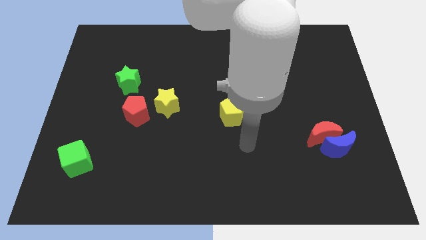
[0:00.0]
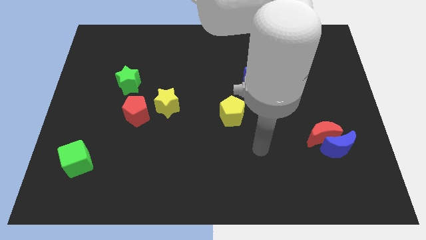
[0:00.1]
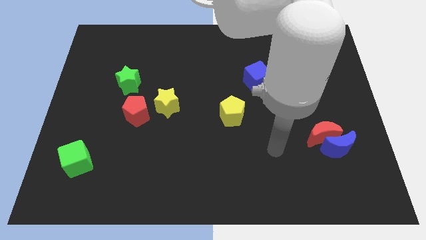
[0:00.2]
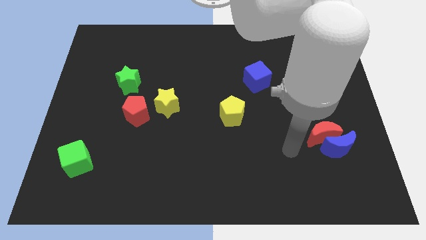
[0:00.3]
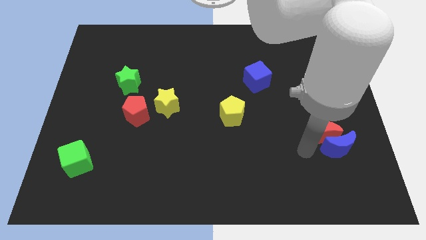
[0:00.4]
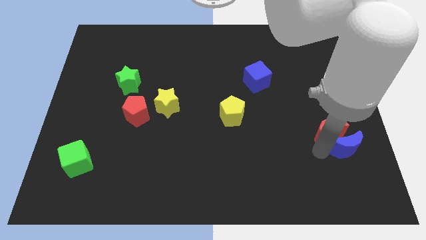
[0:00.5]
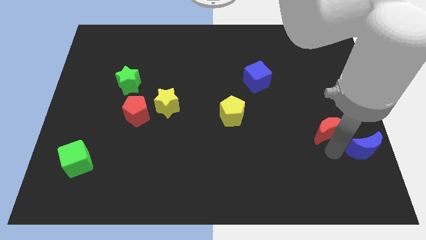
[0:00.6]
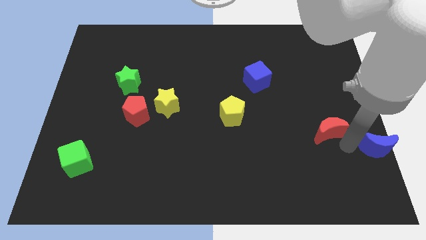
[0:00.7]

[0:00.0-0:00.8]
pull the red moon apart from the blue moon

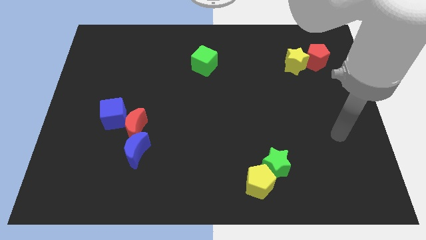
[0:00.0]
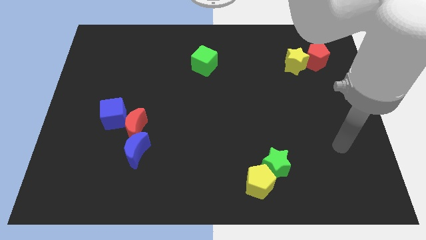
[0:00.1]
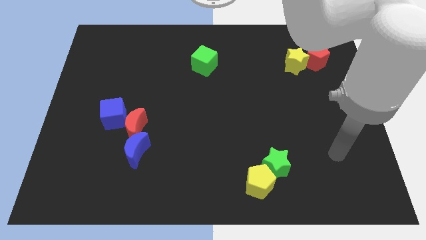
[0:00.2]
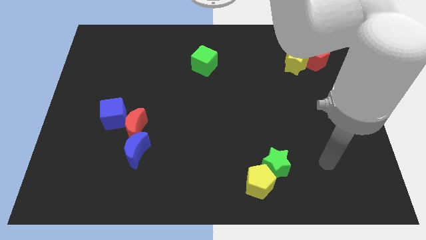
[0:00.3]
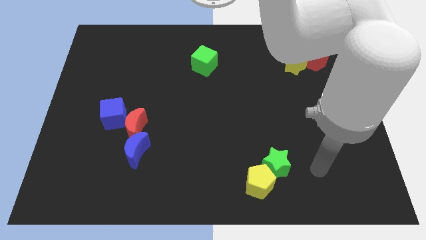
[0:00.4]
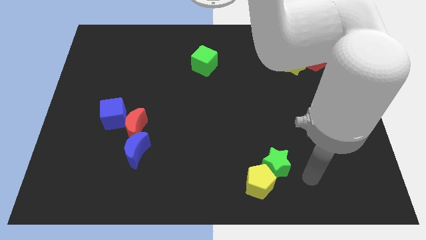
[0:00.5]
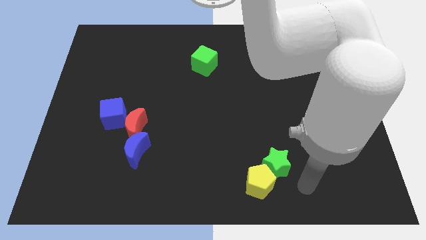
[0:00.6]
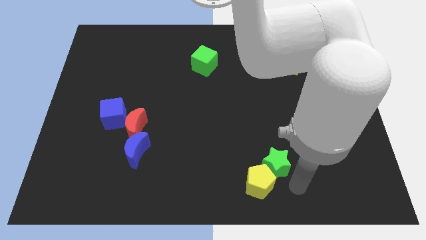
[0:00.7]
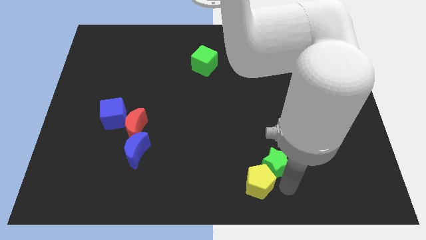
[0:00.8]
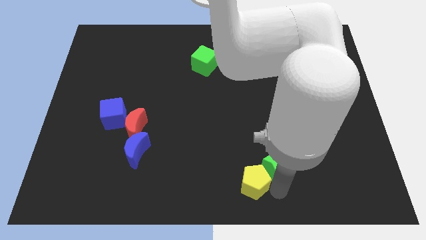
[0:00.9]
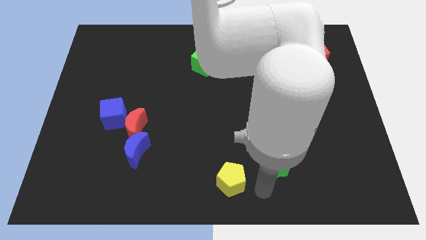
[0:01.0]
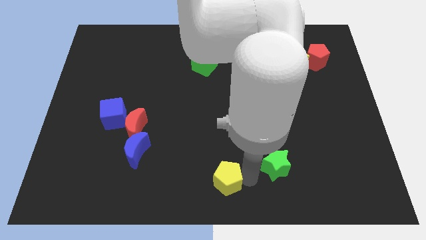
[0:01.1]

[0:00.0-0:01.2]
separate the green star from the yellow pentagon

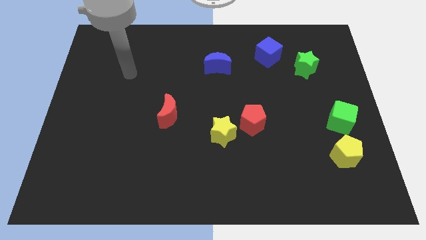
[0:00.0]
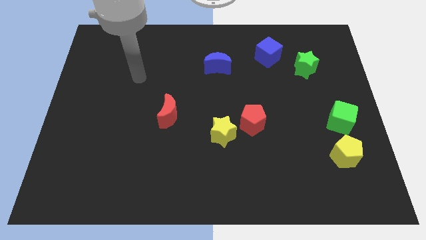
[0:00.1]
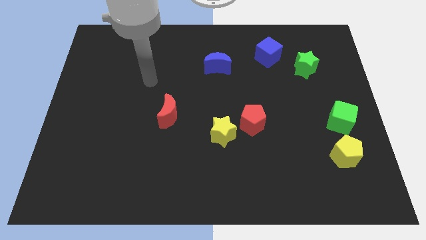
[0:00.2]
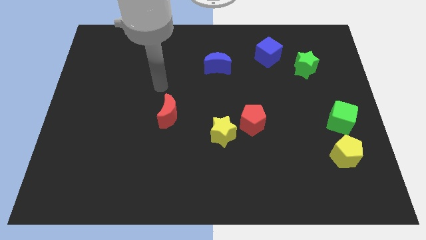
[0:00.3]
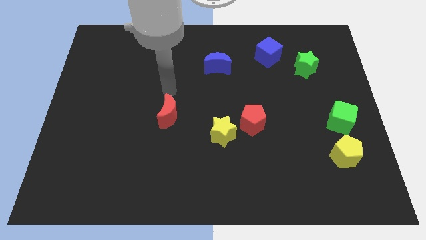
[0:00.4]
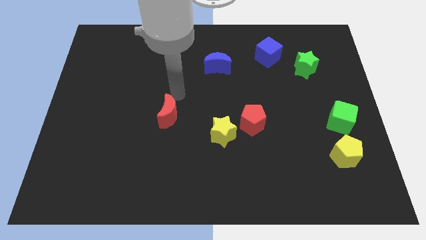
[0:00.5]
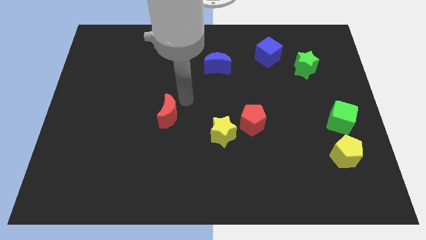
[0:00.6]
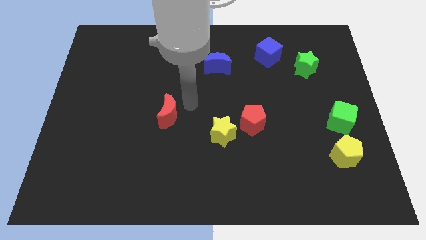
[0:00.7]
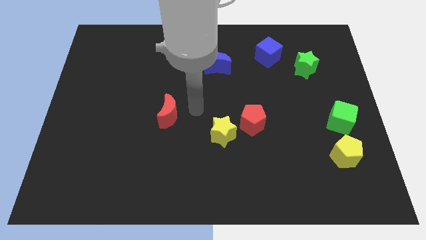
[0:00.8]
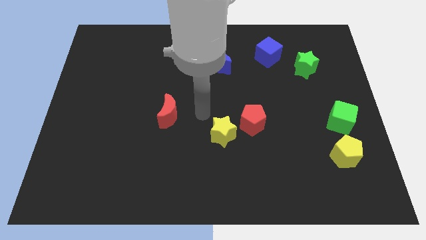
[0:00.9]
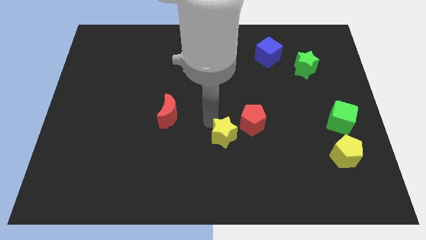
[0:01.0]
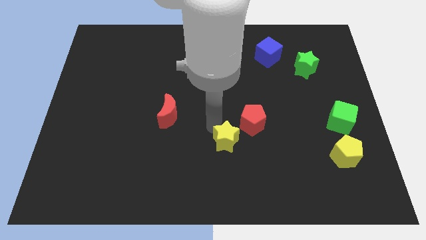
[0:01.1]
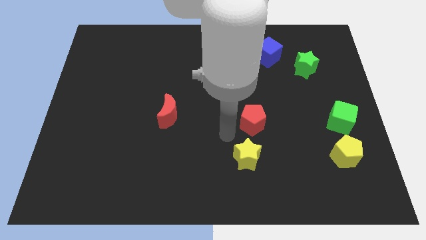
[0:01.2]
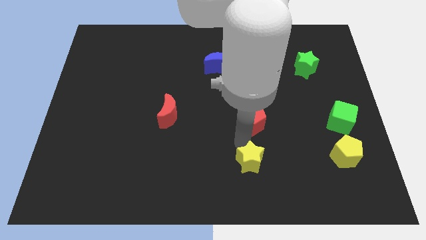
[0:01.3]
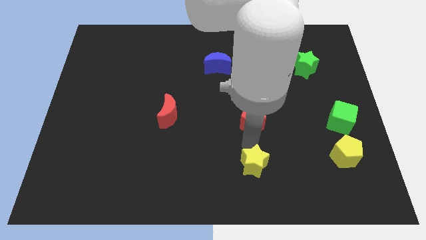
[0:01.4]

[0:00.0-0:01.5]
move the red pentagon away from the yellow star

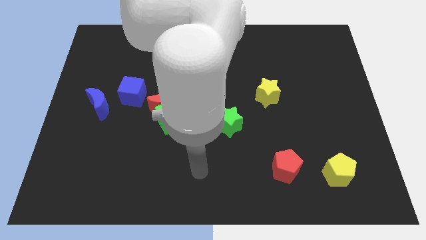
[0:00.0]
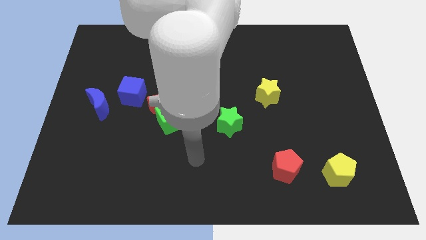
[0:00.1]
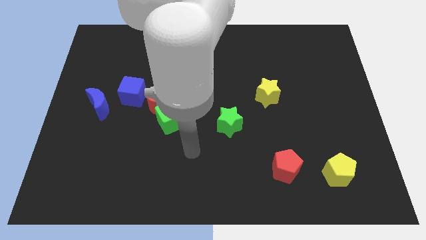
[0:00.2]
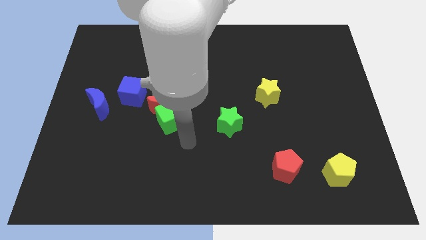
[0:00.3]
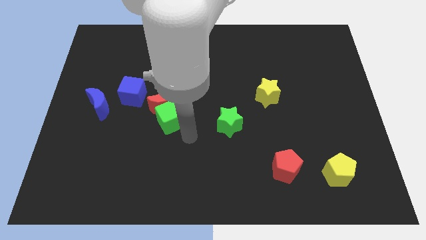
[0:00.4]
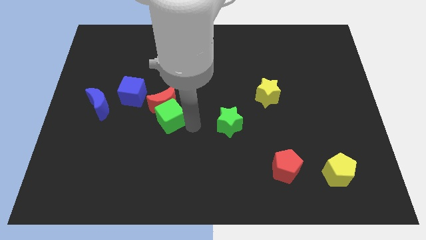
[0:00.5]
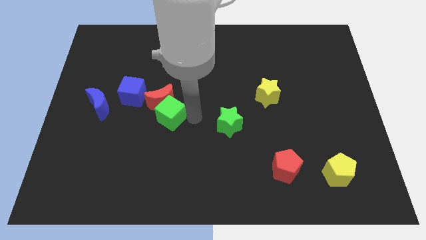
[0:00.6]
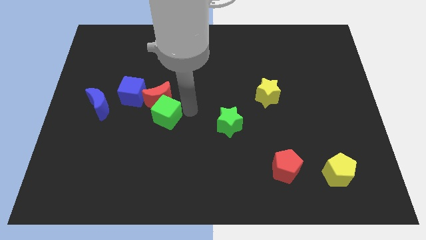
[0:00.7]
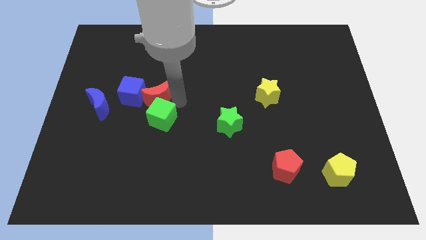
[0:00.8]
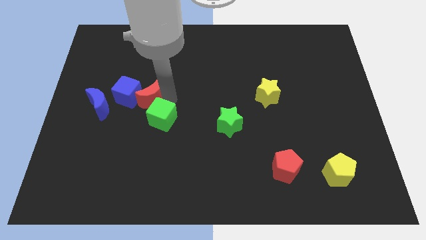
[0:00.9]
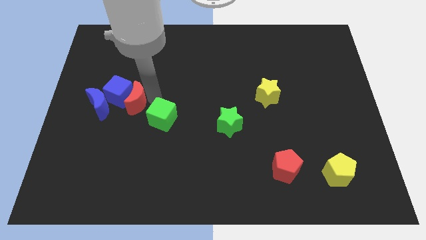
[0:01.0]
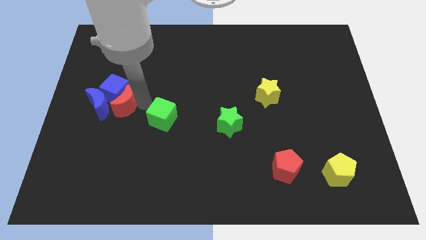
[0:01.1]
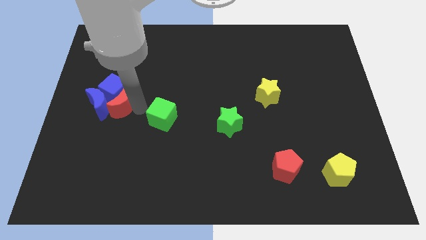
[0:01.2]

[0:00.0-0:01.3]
separate the green cube from the red moon

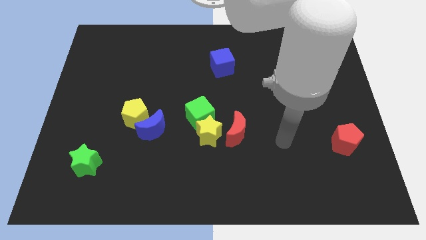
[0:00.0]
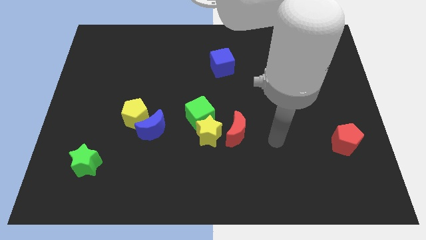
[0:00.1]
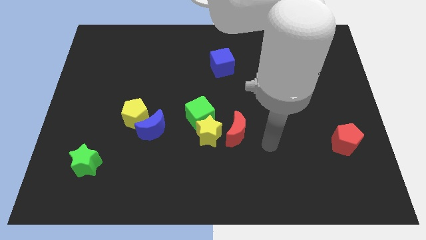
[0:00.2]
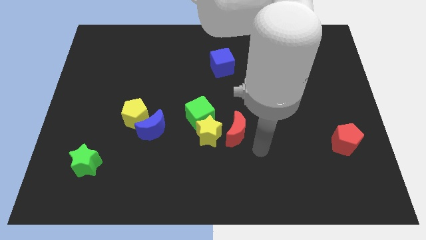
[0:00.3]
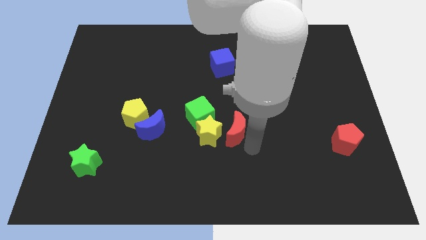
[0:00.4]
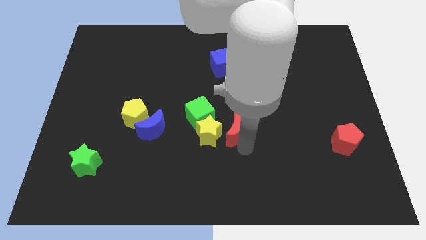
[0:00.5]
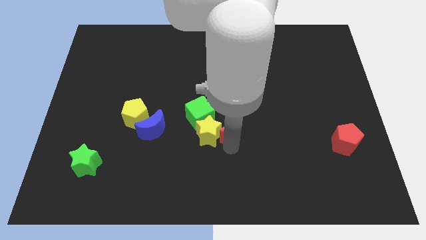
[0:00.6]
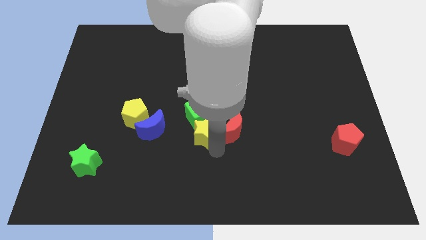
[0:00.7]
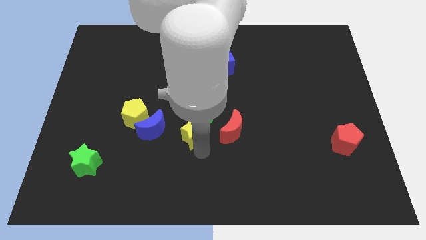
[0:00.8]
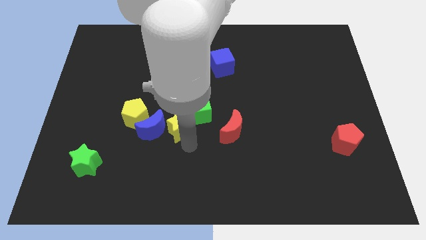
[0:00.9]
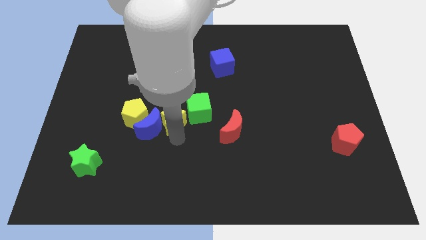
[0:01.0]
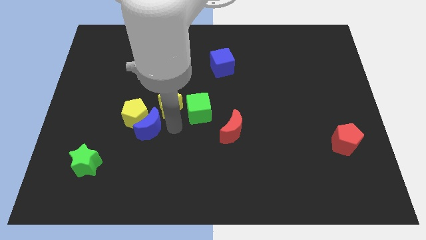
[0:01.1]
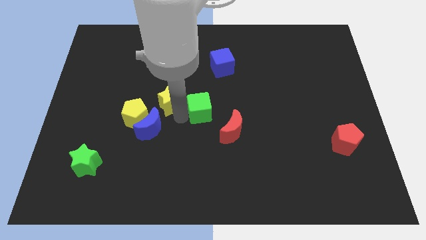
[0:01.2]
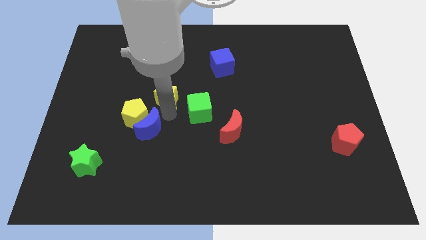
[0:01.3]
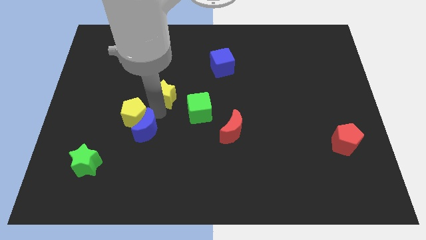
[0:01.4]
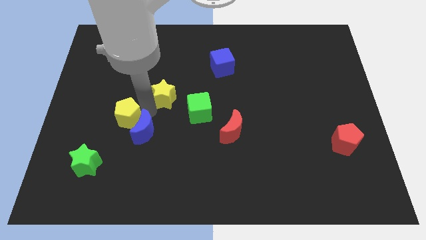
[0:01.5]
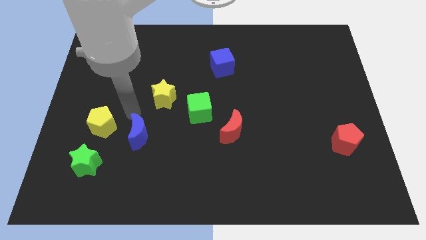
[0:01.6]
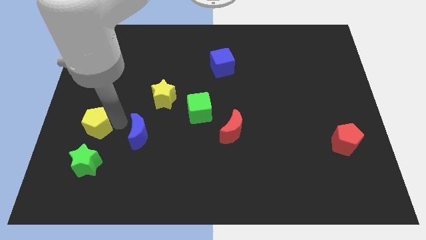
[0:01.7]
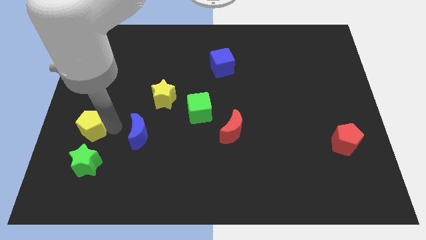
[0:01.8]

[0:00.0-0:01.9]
move the blue moon away from the yellow pentagon

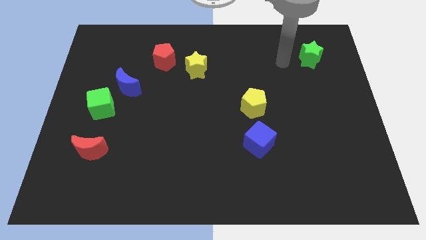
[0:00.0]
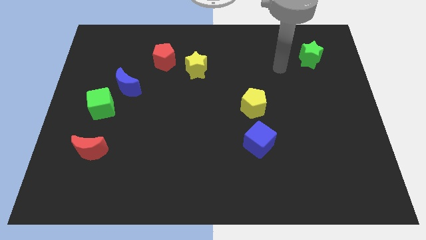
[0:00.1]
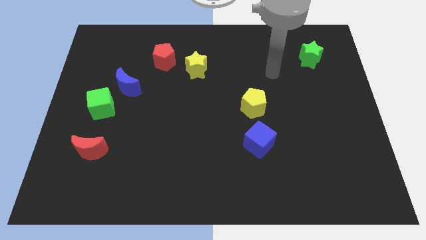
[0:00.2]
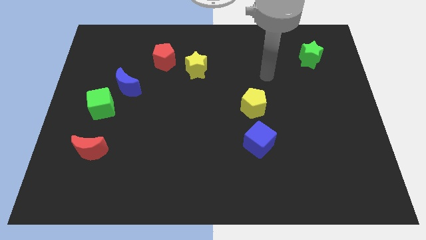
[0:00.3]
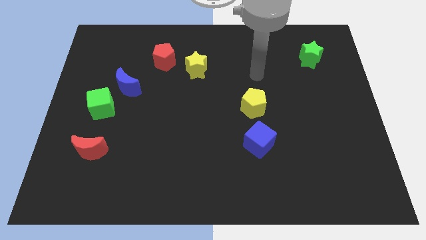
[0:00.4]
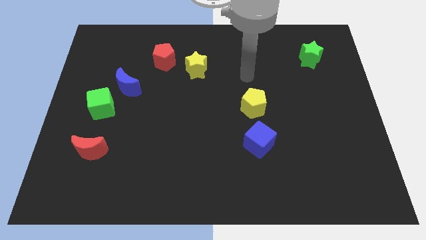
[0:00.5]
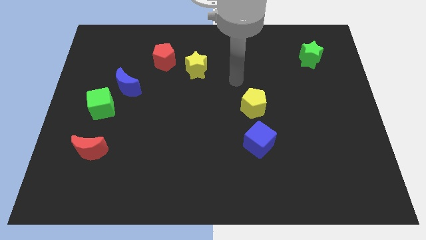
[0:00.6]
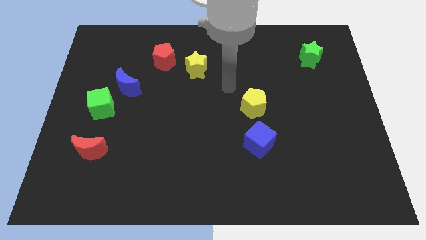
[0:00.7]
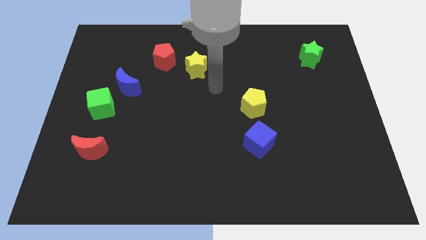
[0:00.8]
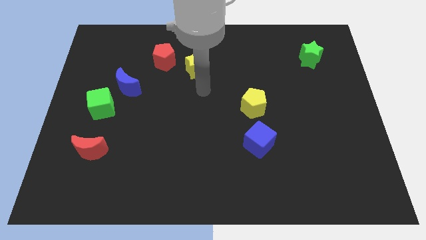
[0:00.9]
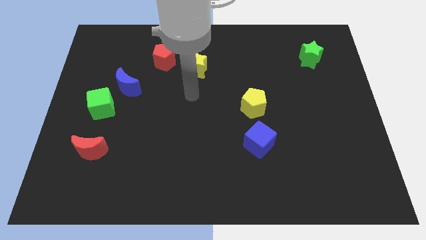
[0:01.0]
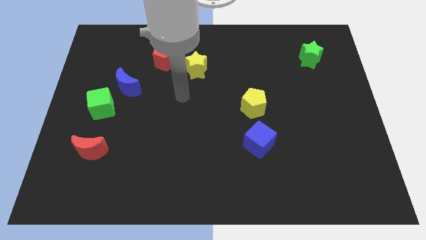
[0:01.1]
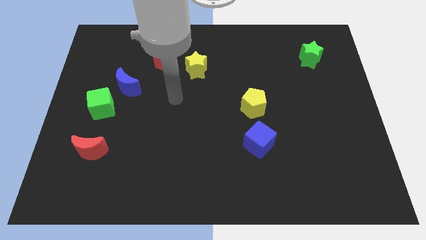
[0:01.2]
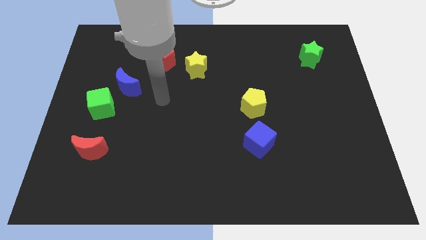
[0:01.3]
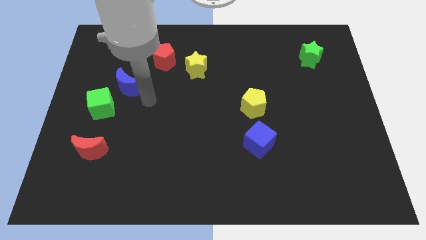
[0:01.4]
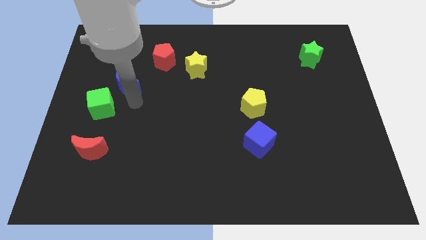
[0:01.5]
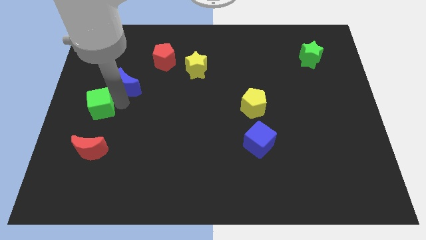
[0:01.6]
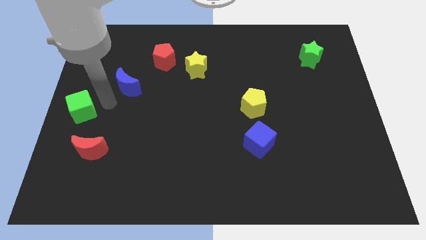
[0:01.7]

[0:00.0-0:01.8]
separate the blue moon from the green cube

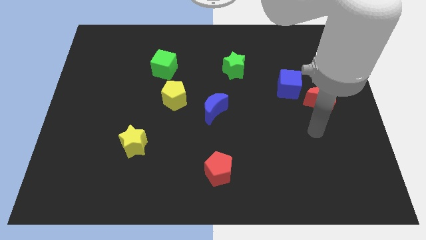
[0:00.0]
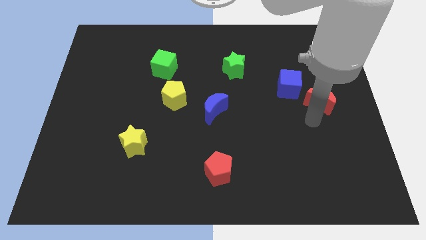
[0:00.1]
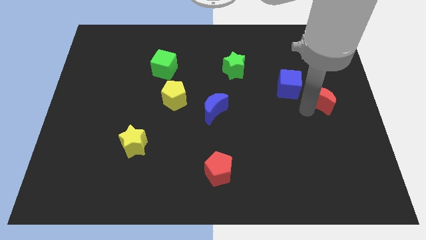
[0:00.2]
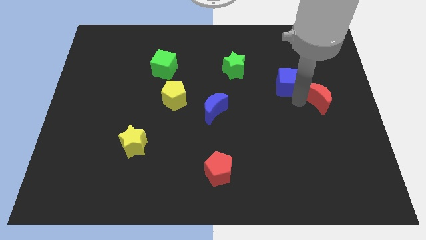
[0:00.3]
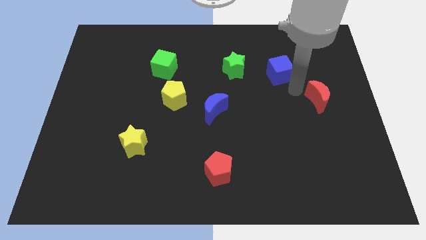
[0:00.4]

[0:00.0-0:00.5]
separate the red moon from the blue cube

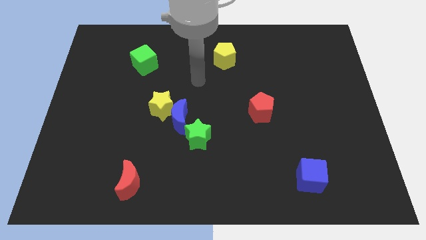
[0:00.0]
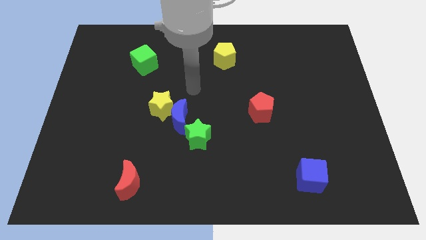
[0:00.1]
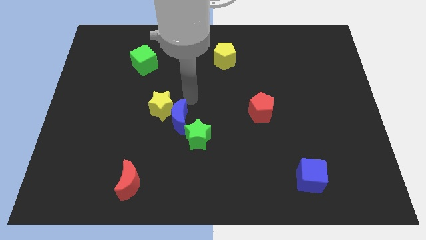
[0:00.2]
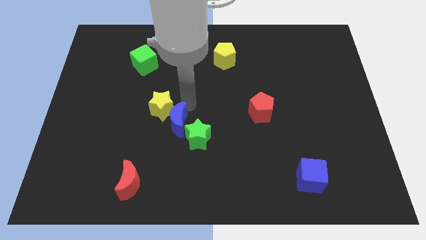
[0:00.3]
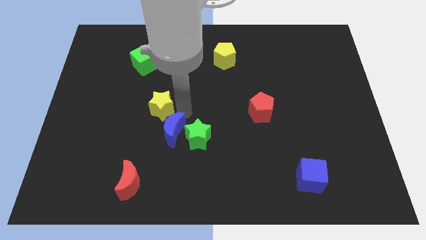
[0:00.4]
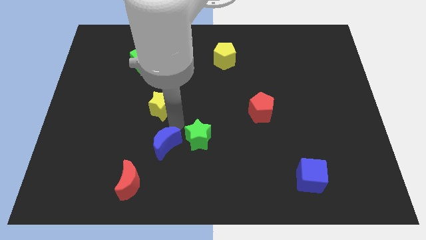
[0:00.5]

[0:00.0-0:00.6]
separate the yellow star from the blue moon
